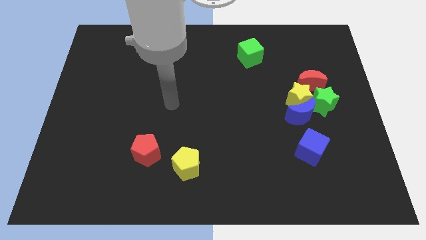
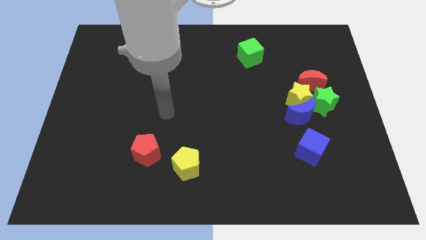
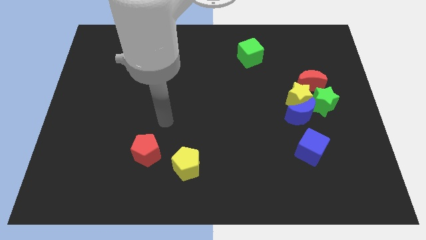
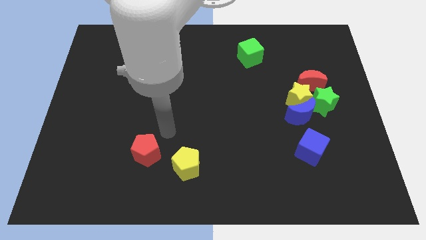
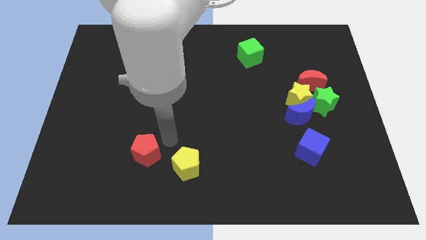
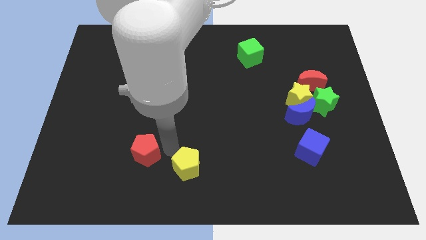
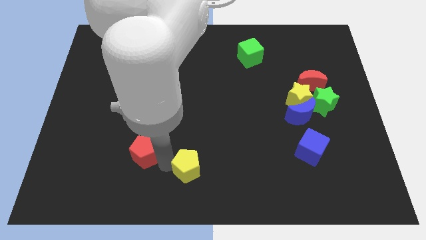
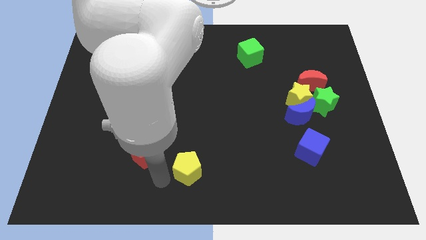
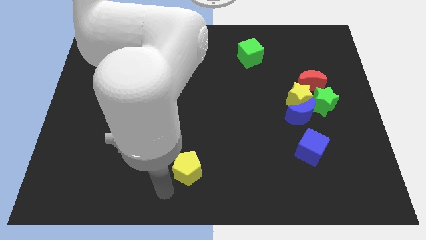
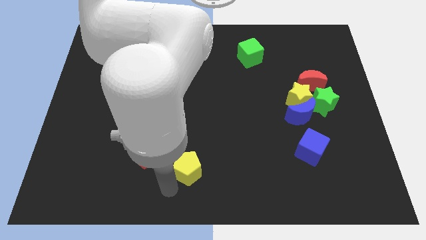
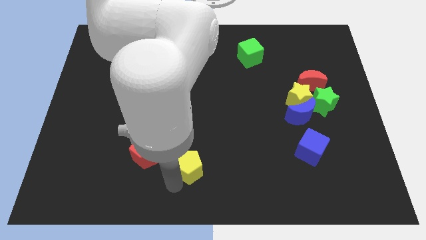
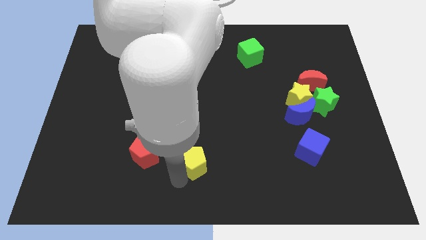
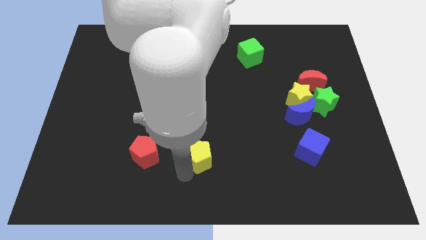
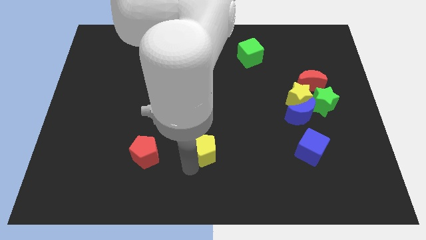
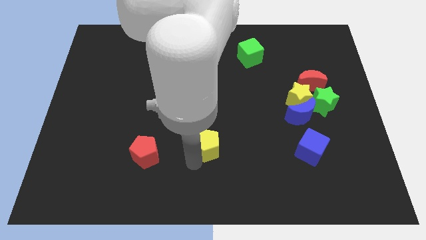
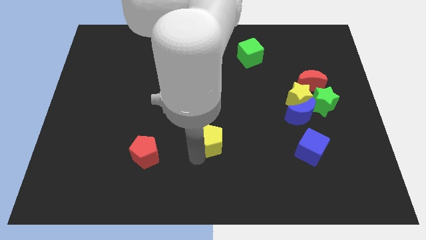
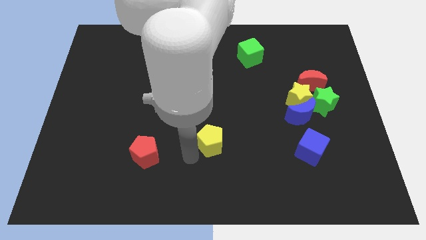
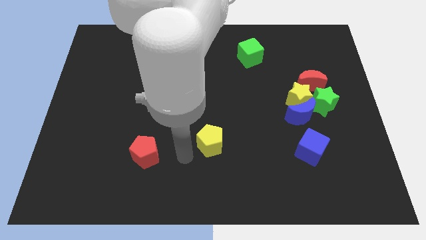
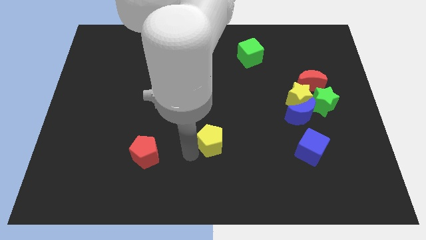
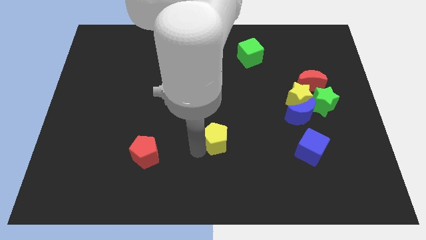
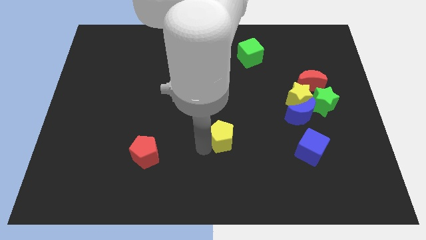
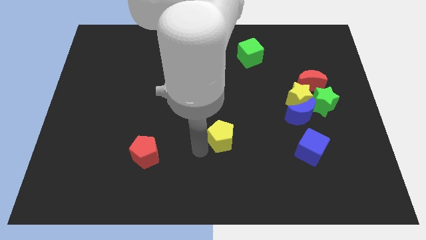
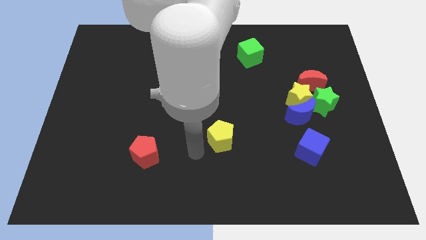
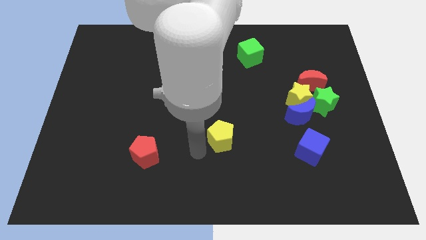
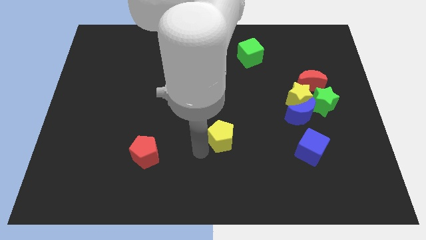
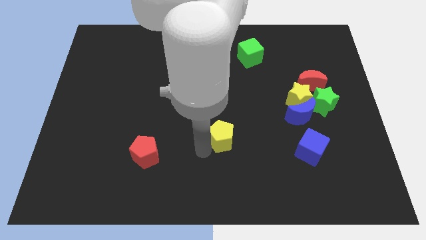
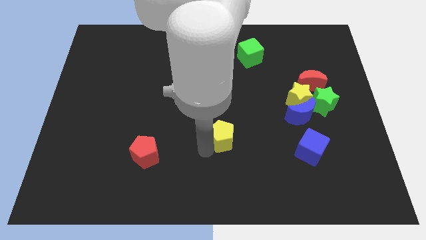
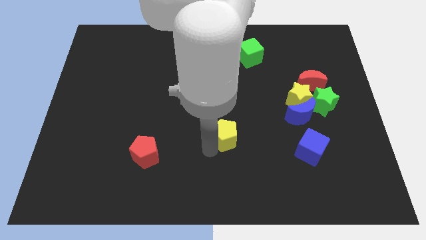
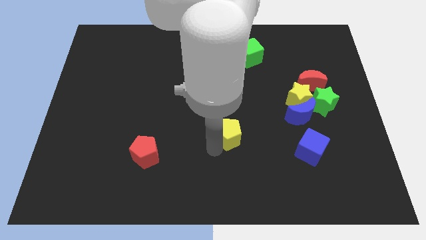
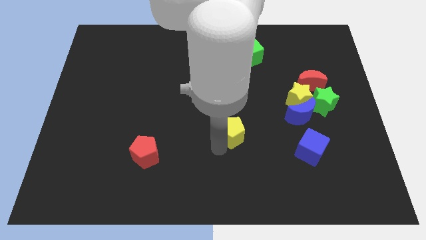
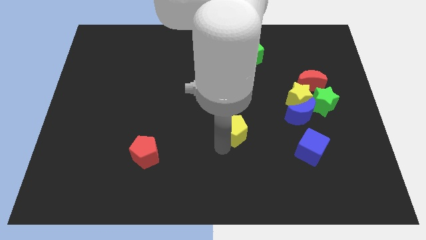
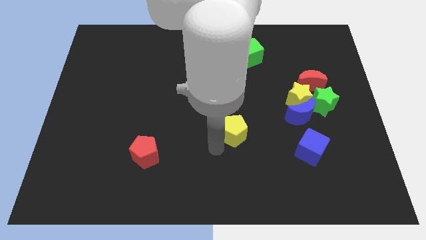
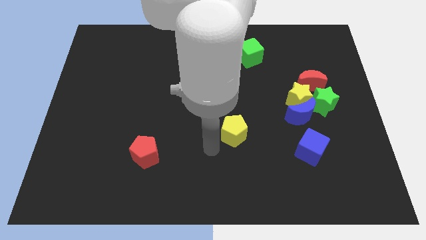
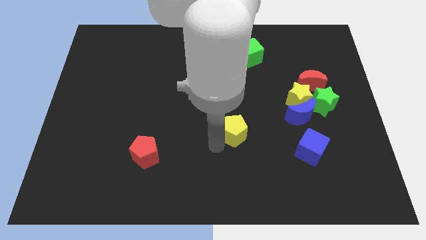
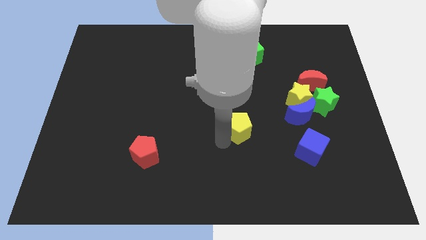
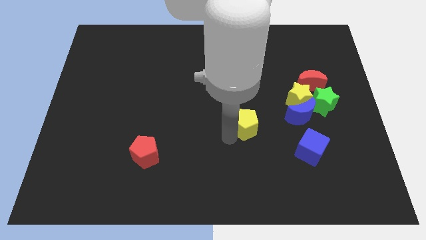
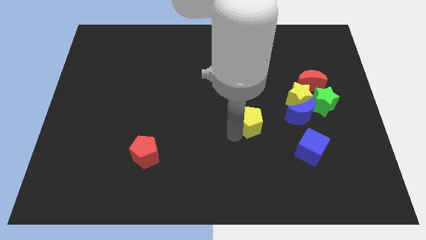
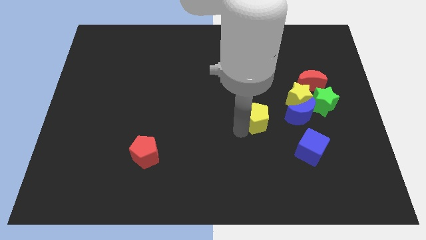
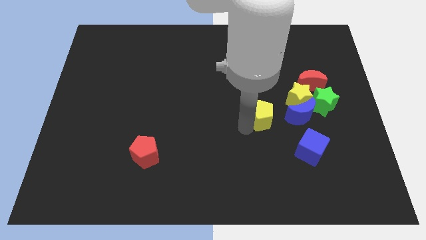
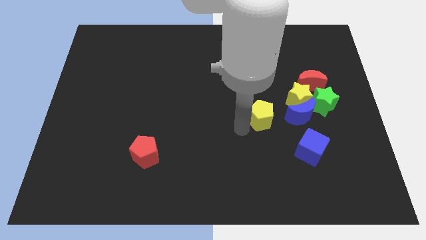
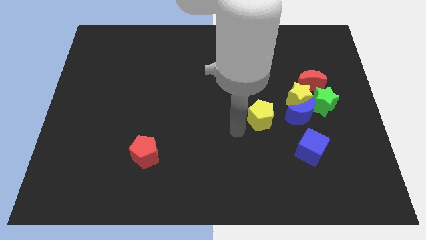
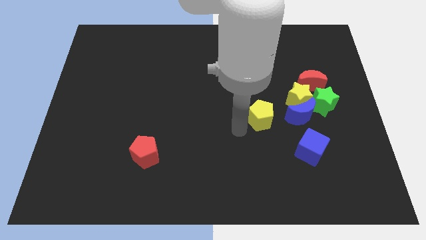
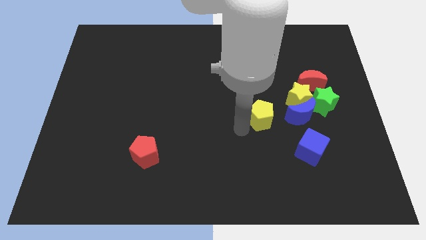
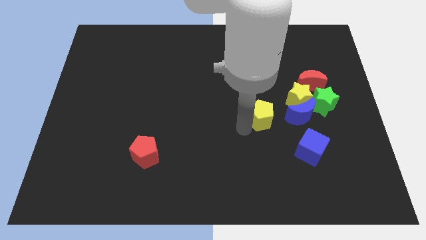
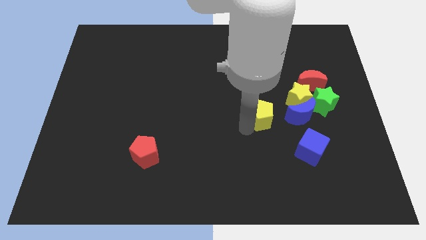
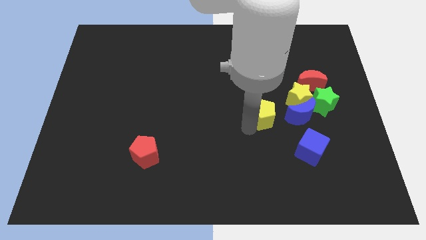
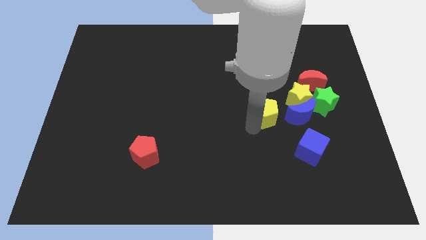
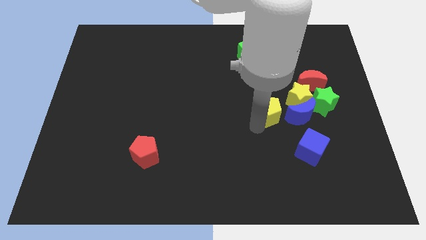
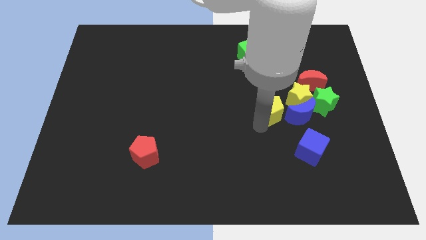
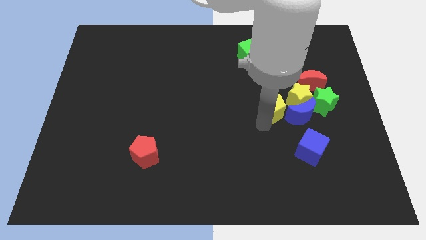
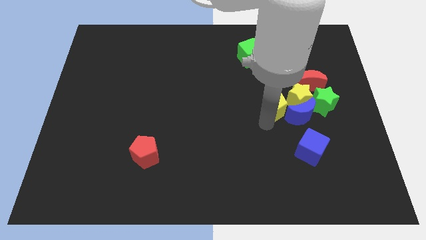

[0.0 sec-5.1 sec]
move the yellow pentagon diagonally down and to the left of the red moon

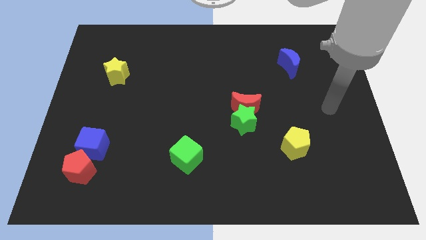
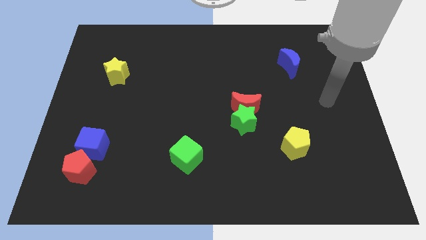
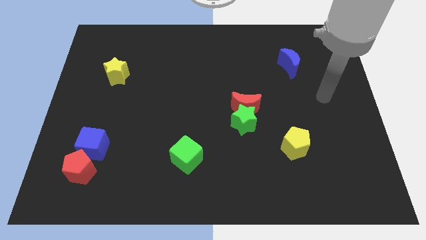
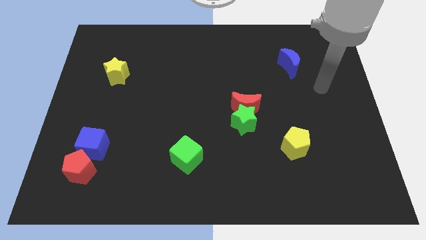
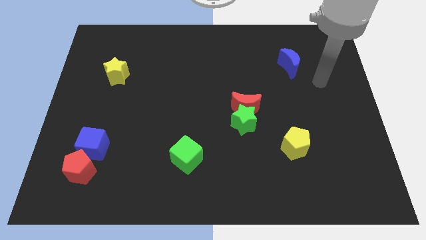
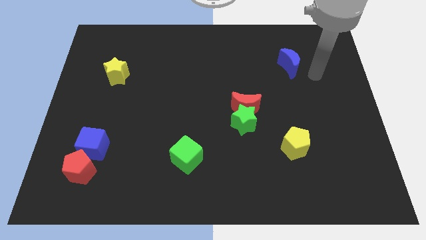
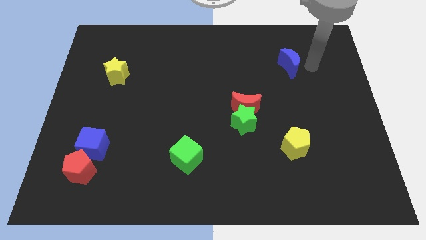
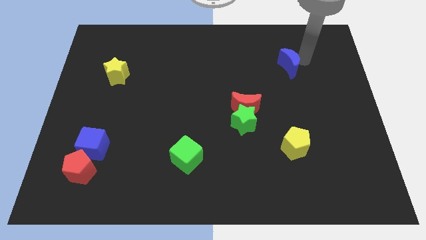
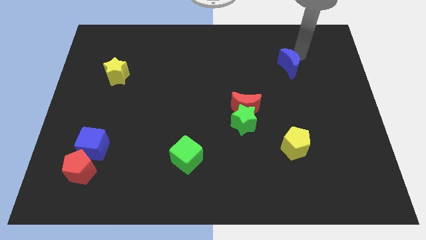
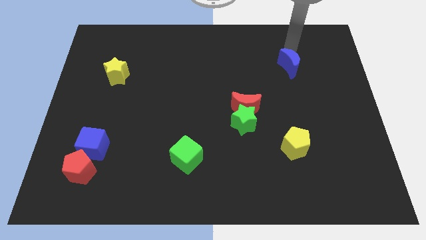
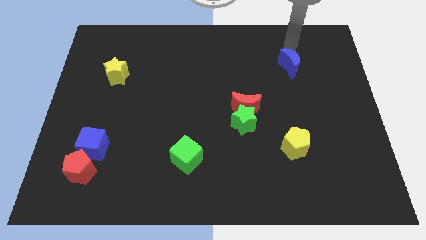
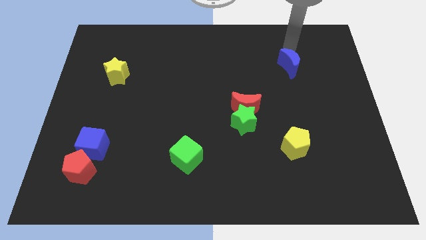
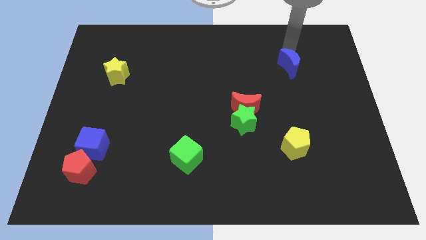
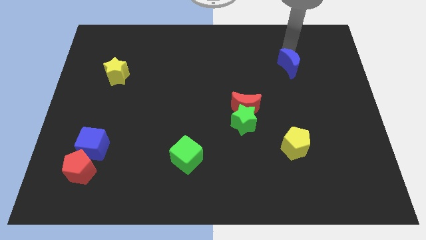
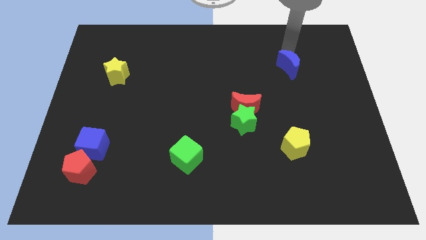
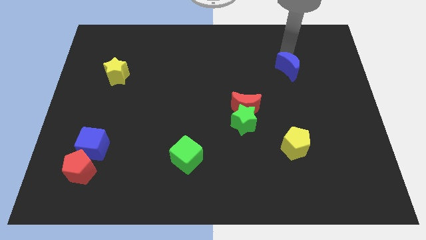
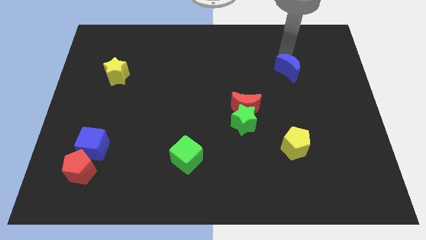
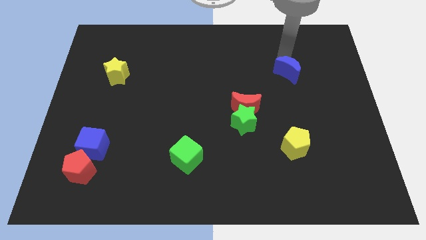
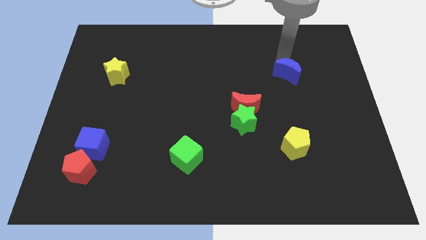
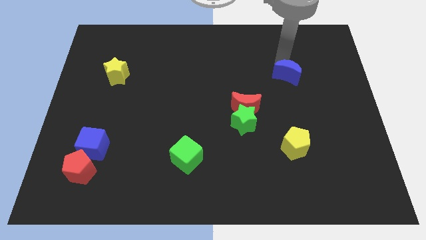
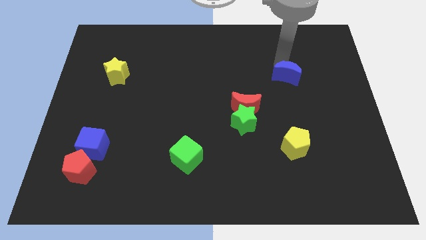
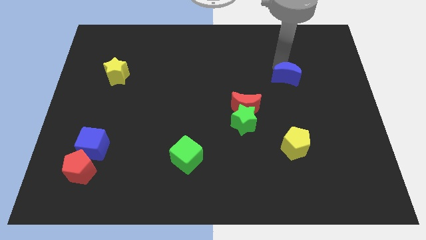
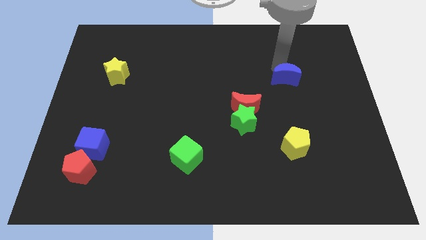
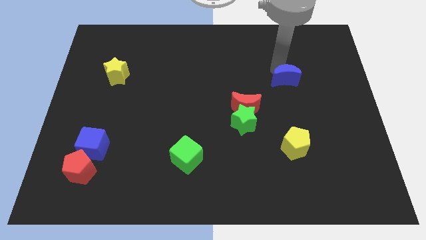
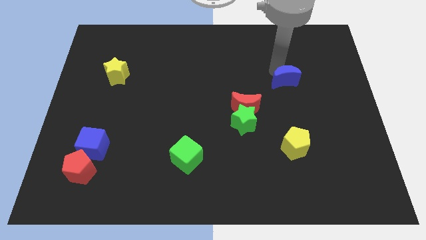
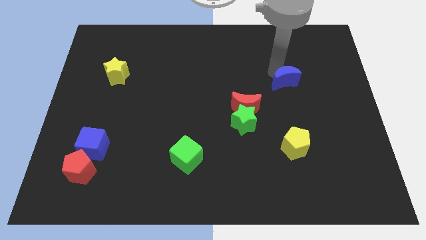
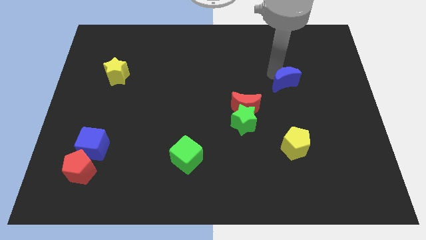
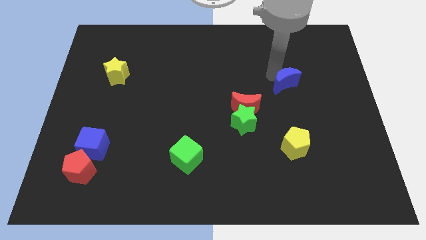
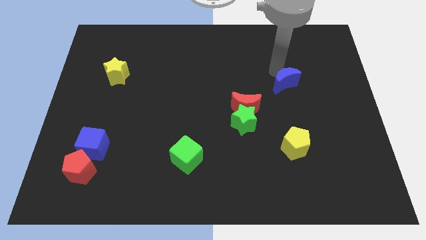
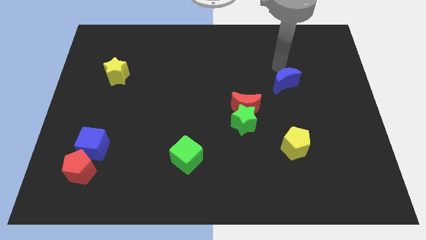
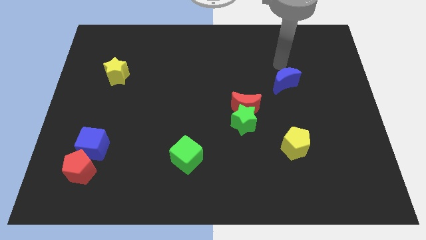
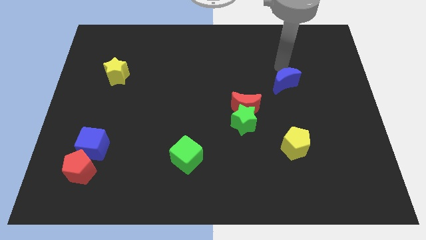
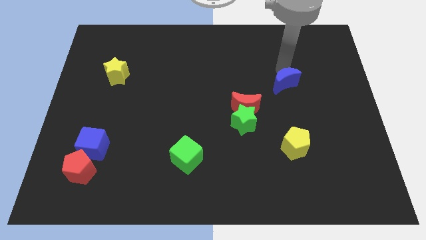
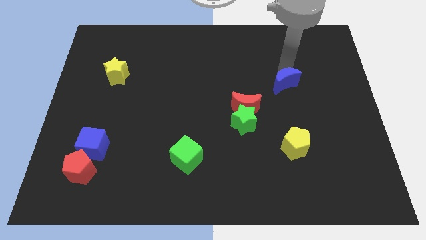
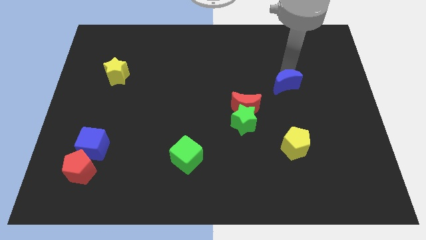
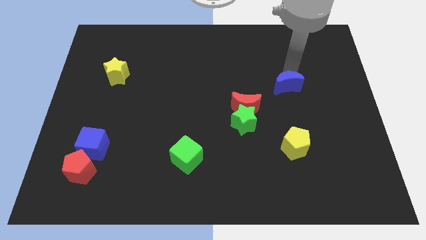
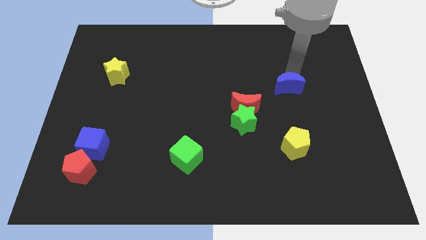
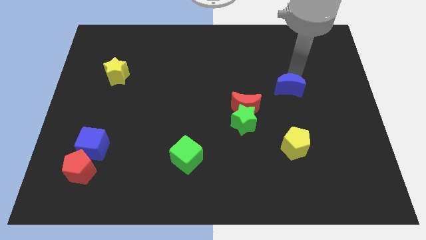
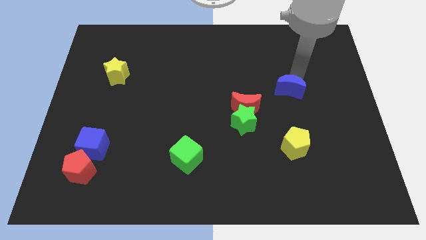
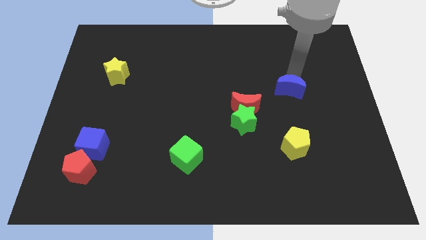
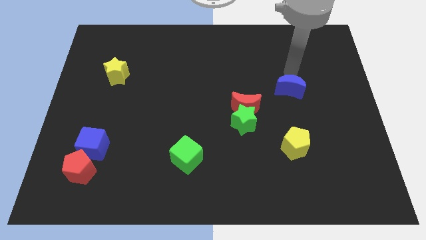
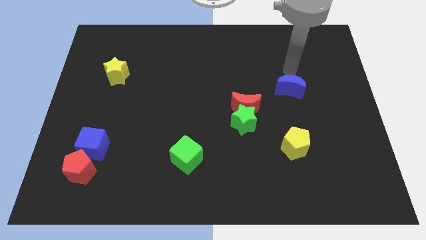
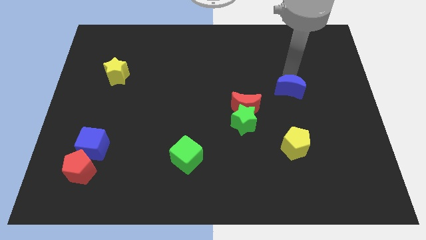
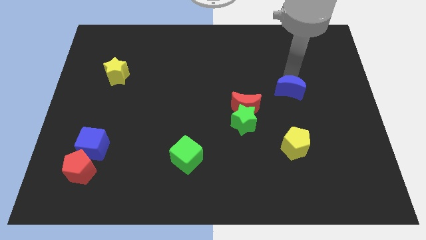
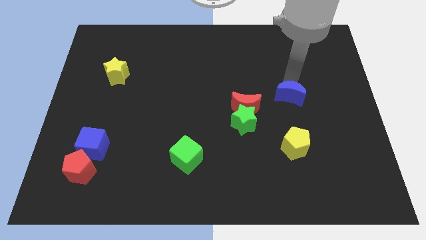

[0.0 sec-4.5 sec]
put the blue moon right of the red moon
